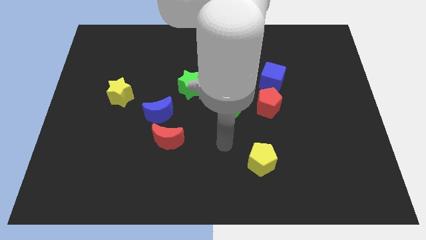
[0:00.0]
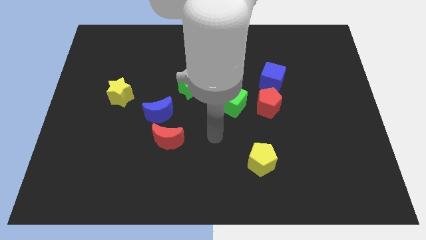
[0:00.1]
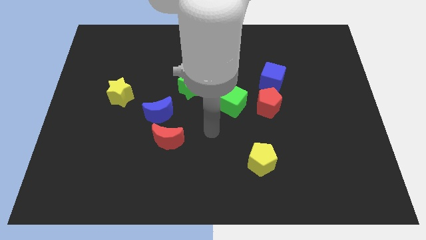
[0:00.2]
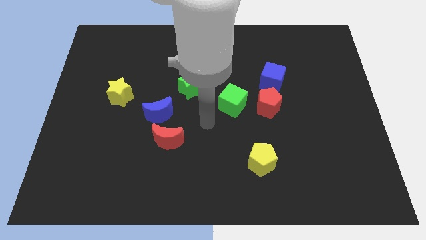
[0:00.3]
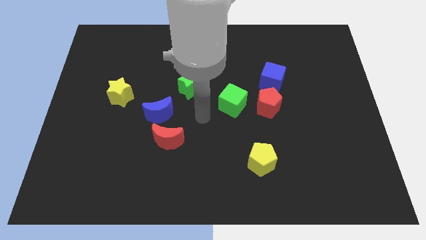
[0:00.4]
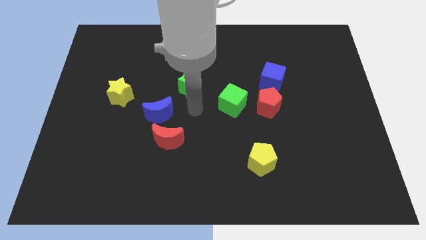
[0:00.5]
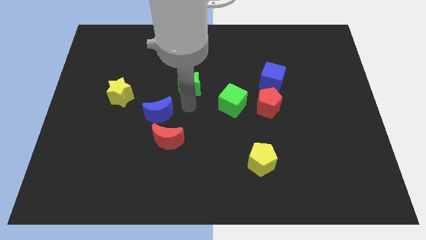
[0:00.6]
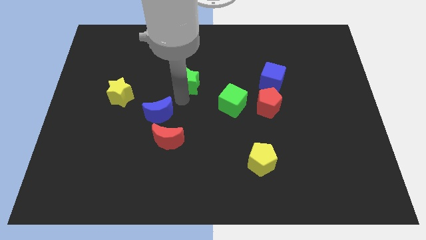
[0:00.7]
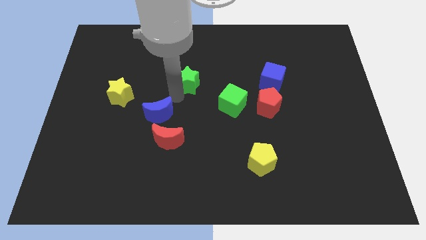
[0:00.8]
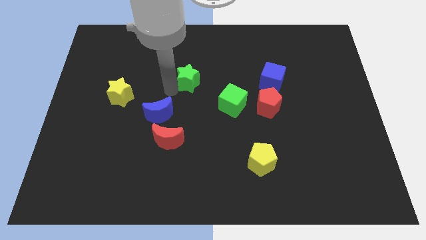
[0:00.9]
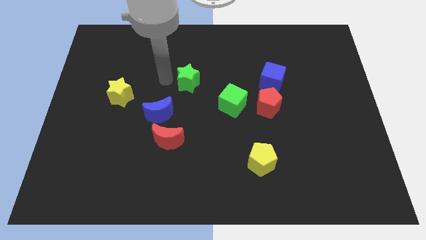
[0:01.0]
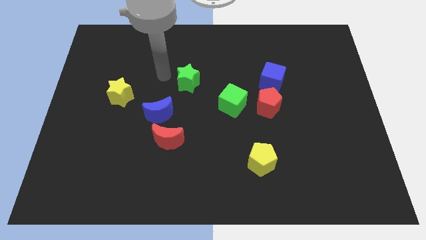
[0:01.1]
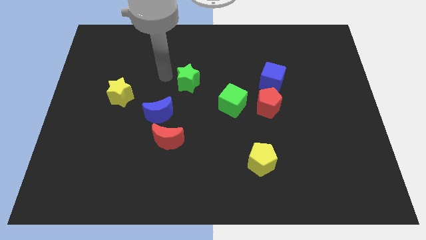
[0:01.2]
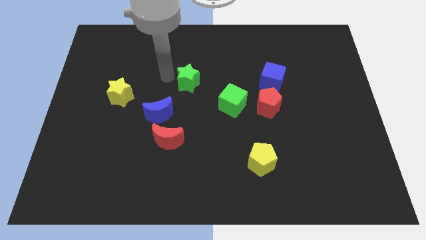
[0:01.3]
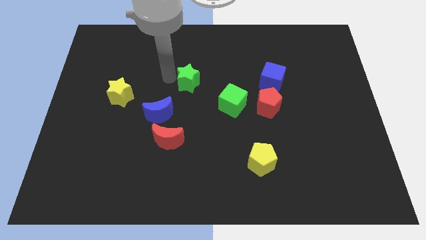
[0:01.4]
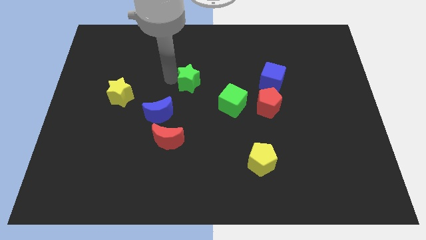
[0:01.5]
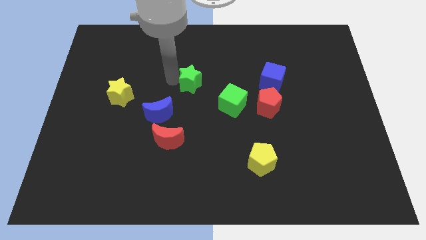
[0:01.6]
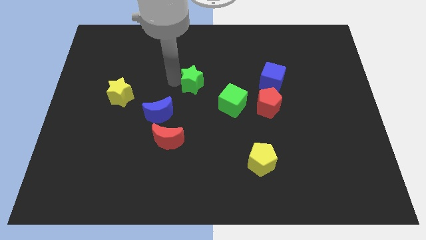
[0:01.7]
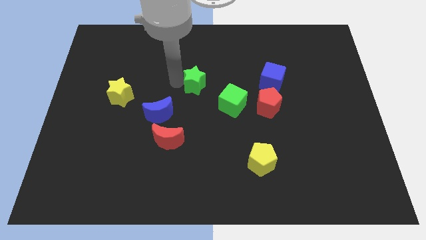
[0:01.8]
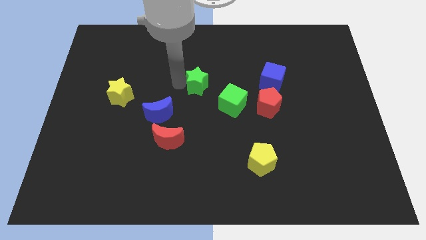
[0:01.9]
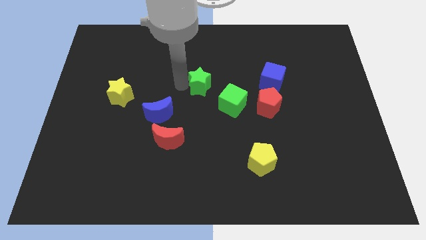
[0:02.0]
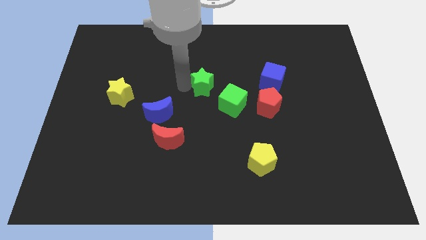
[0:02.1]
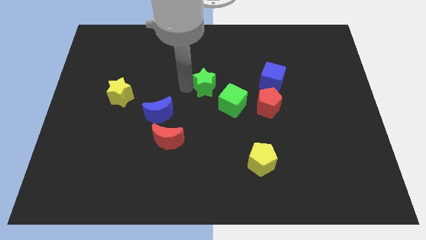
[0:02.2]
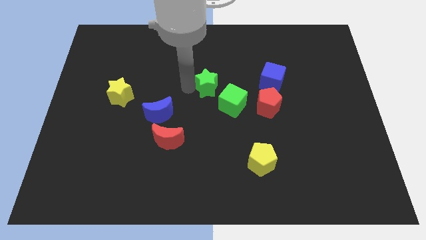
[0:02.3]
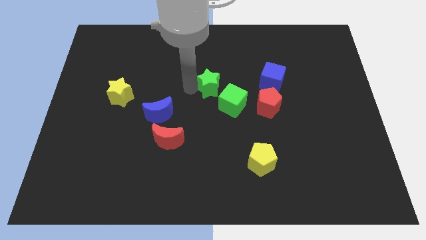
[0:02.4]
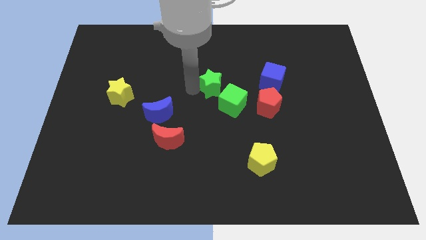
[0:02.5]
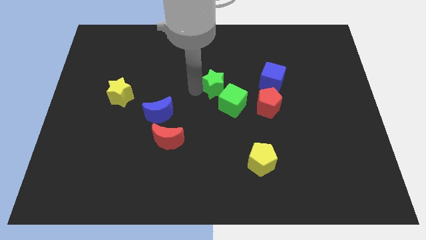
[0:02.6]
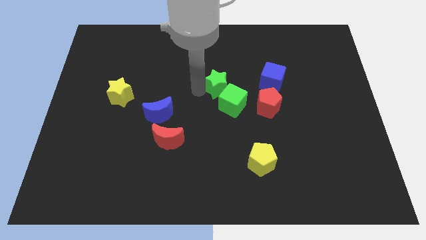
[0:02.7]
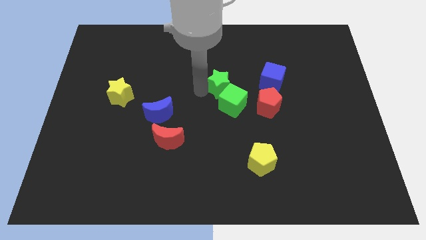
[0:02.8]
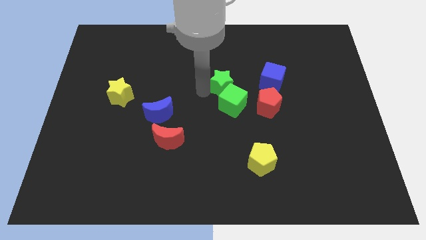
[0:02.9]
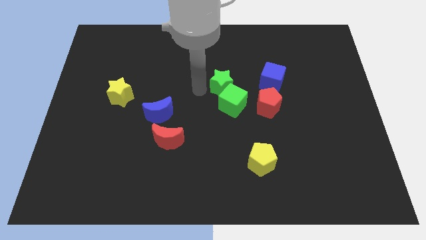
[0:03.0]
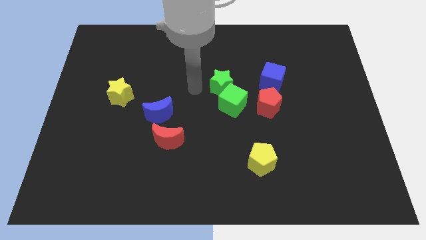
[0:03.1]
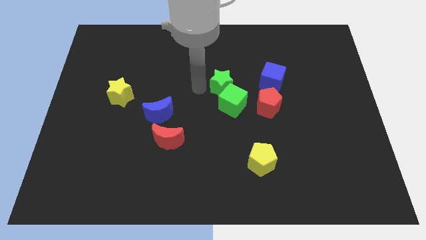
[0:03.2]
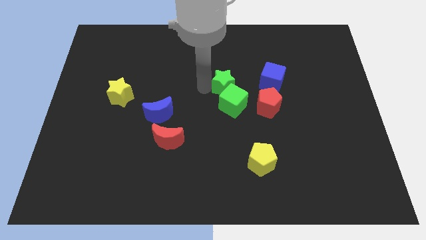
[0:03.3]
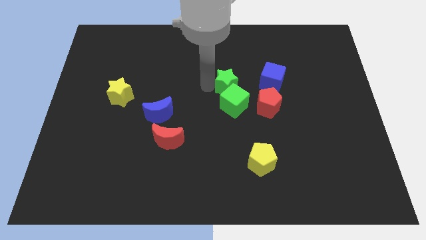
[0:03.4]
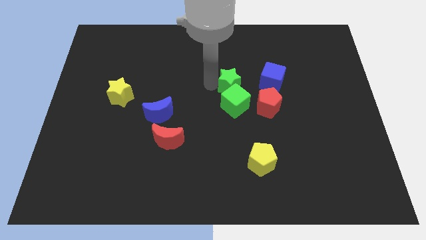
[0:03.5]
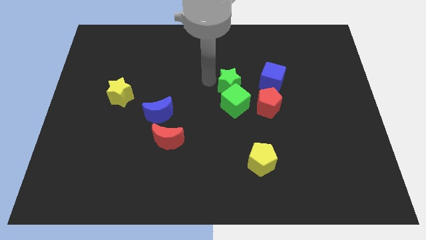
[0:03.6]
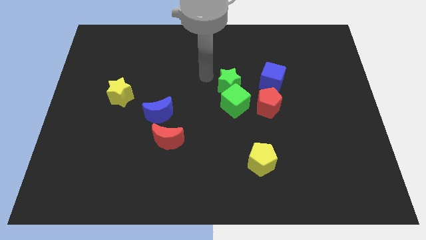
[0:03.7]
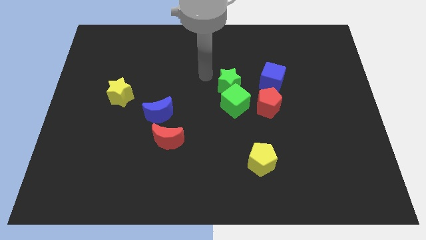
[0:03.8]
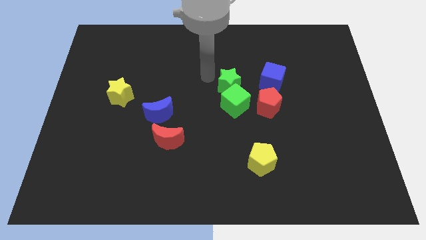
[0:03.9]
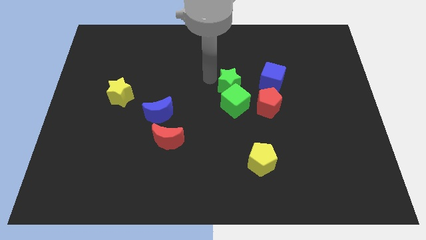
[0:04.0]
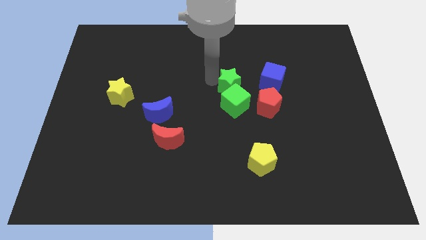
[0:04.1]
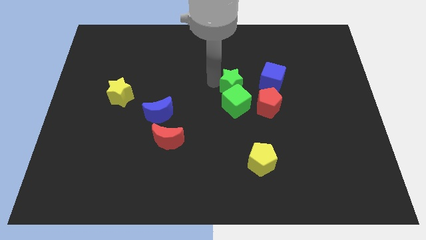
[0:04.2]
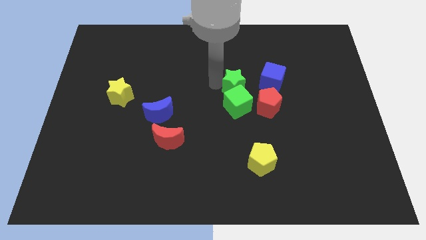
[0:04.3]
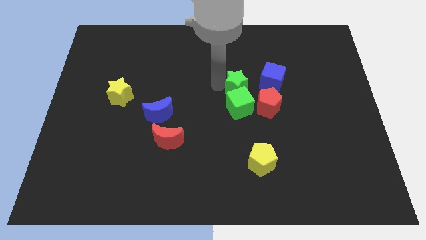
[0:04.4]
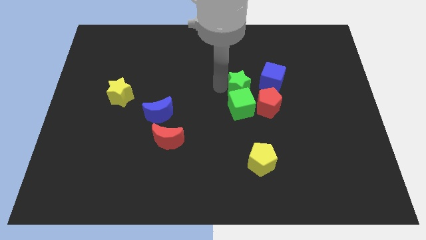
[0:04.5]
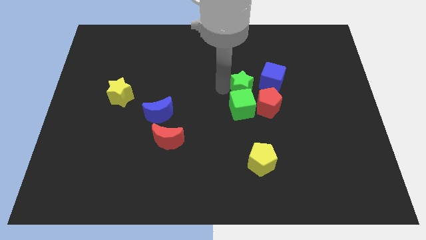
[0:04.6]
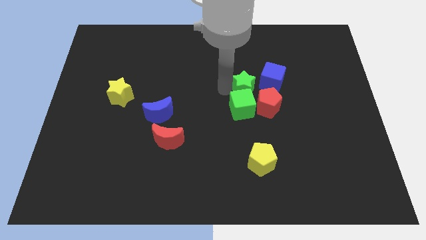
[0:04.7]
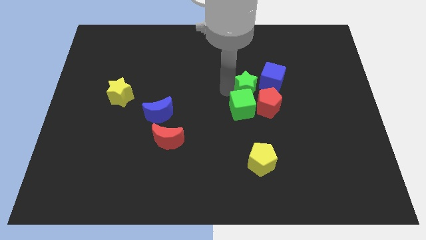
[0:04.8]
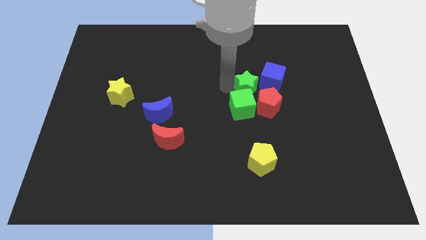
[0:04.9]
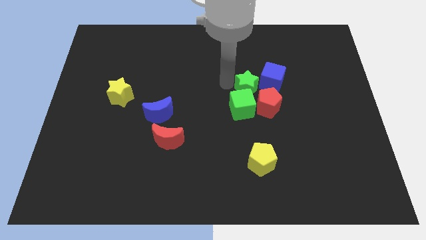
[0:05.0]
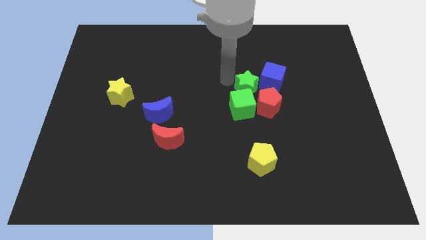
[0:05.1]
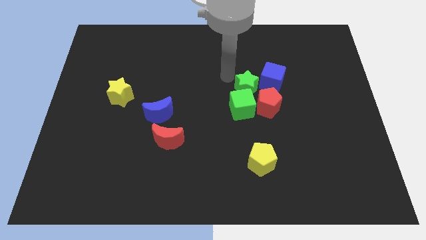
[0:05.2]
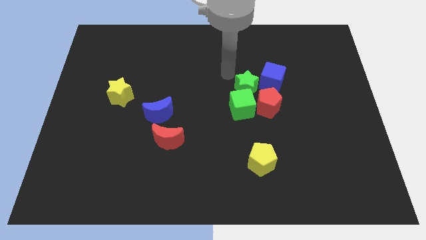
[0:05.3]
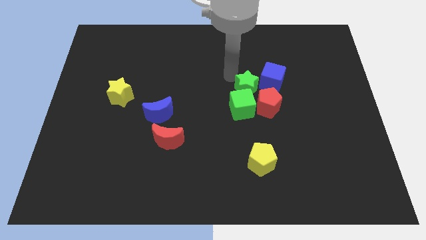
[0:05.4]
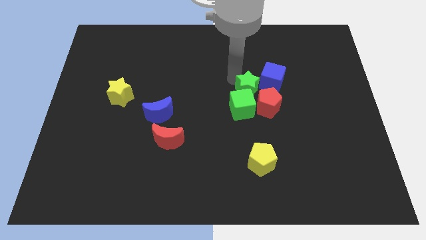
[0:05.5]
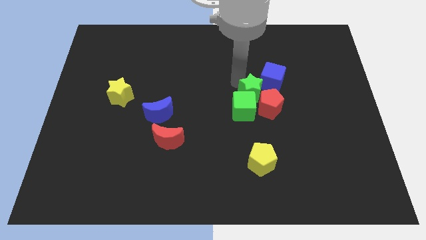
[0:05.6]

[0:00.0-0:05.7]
push the green star close to the red pentagon

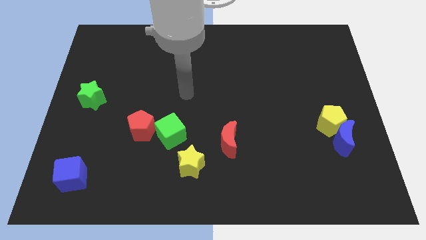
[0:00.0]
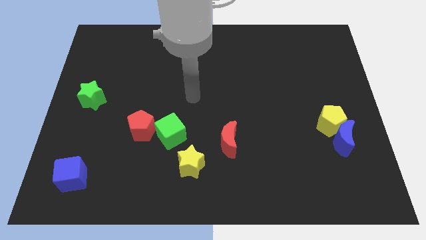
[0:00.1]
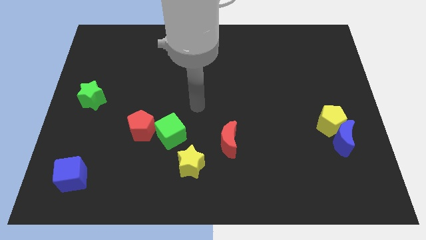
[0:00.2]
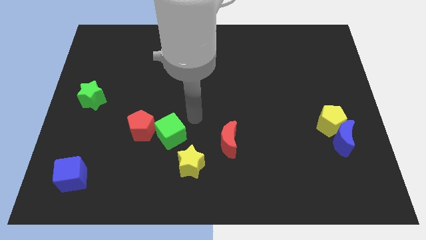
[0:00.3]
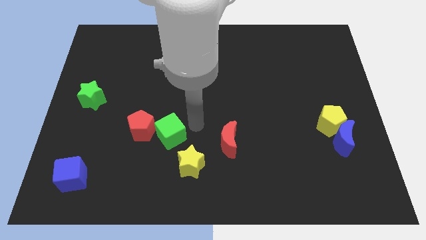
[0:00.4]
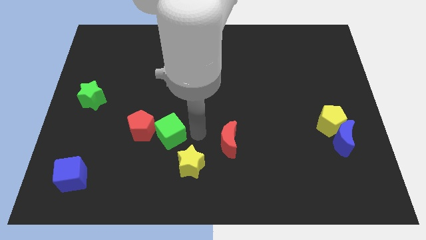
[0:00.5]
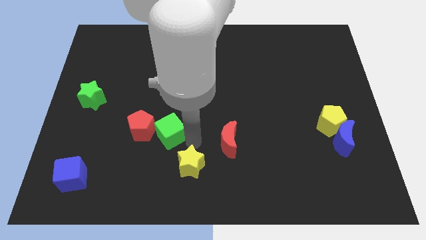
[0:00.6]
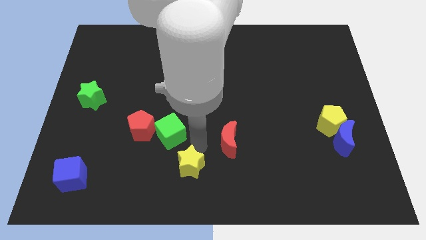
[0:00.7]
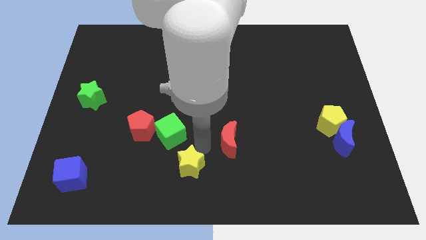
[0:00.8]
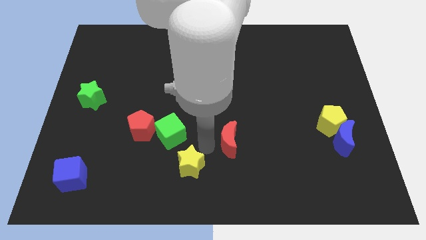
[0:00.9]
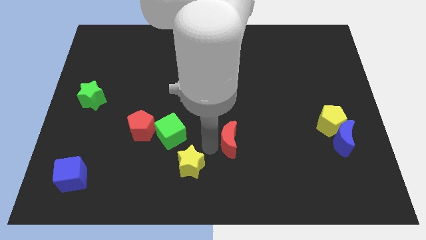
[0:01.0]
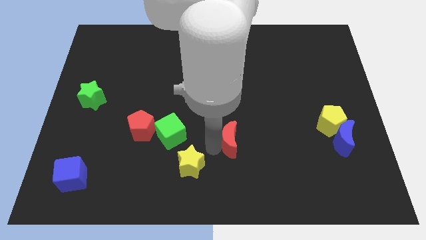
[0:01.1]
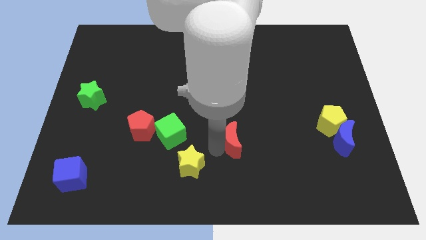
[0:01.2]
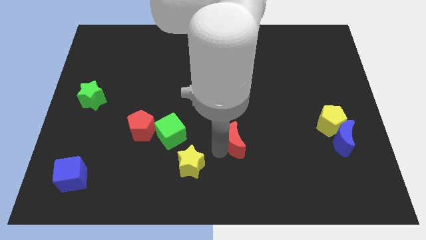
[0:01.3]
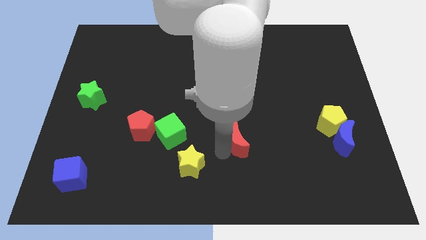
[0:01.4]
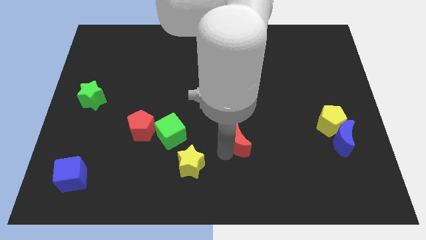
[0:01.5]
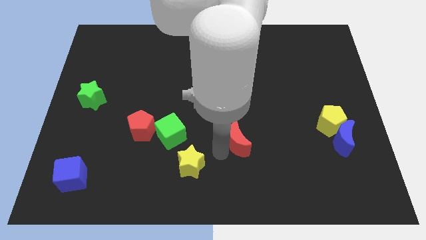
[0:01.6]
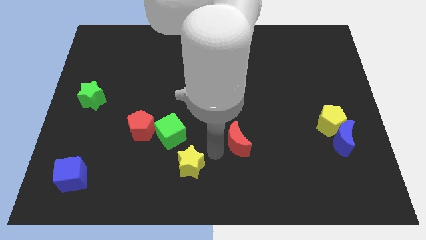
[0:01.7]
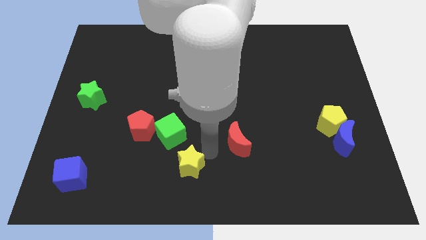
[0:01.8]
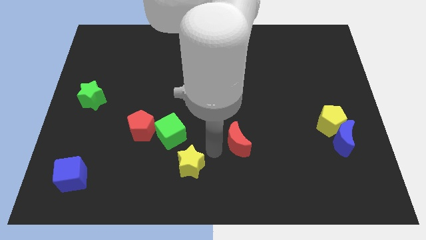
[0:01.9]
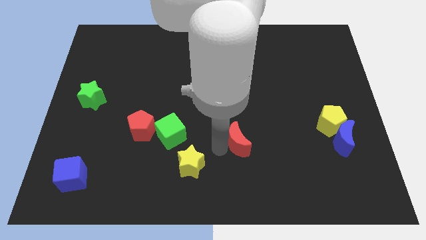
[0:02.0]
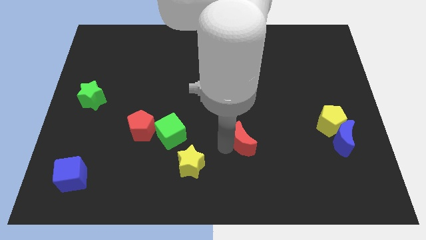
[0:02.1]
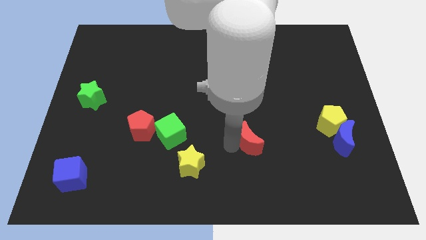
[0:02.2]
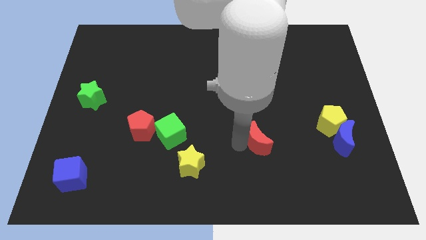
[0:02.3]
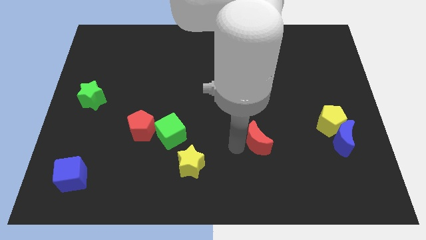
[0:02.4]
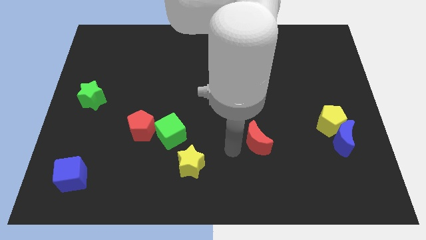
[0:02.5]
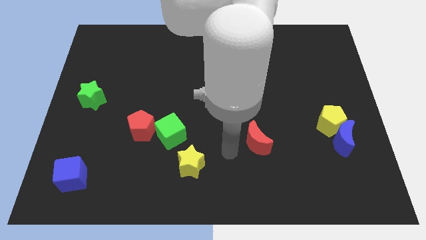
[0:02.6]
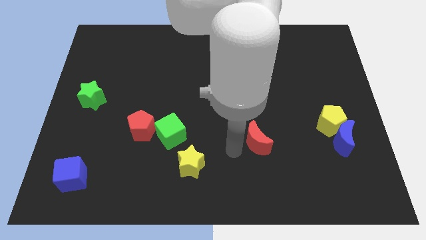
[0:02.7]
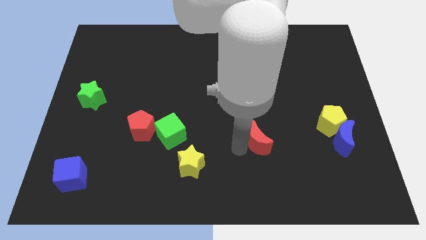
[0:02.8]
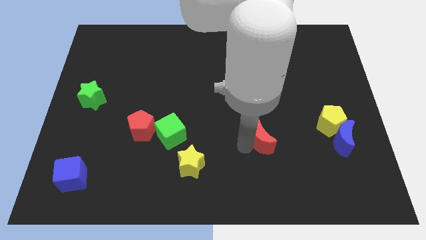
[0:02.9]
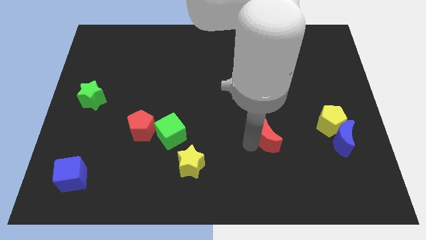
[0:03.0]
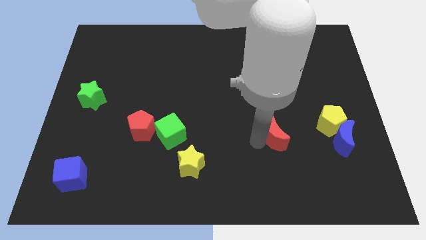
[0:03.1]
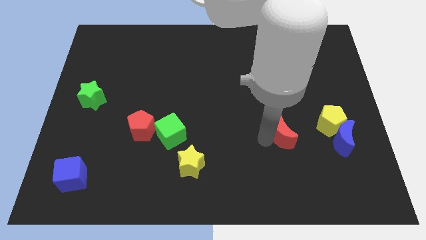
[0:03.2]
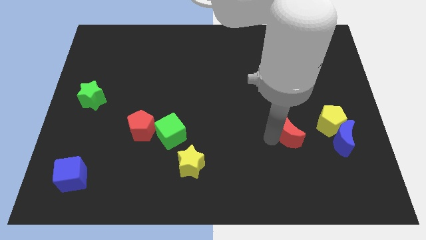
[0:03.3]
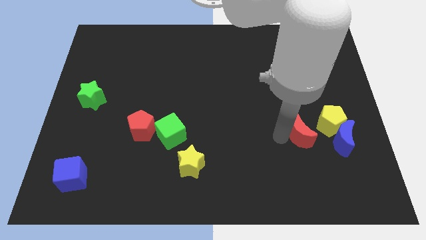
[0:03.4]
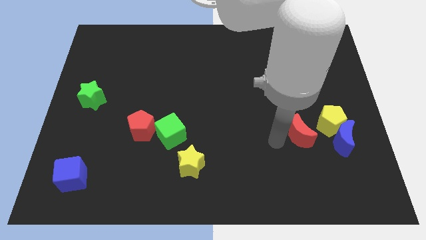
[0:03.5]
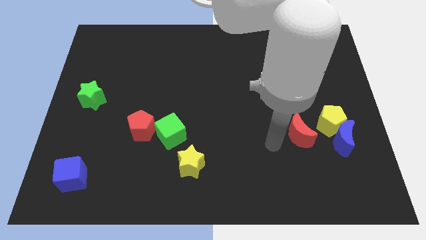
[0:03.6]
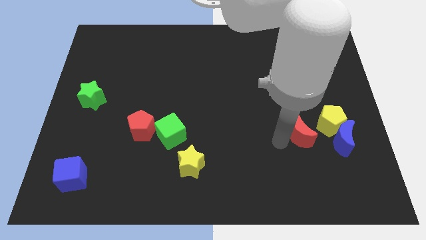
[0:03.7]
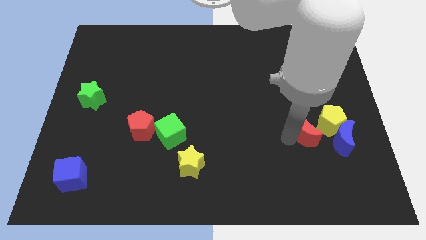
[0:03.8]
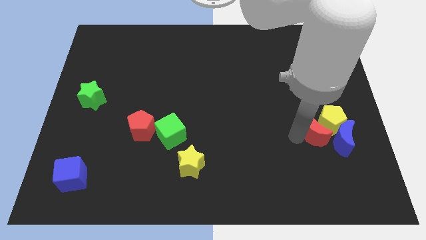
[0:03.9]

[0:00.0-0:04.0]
move the red moon towards the yellow pentagon
